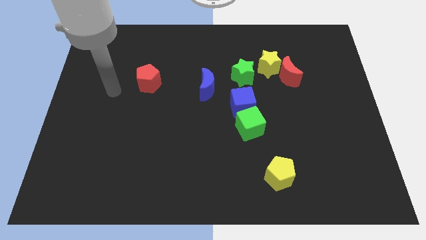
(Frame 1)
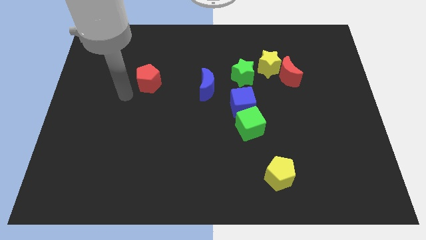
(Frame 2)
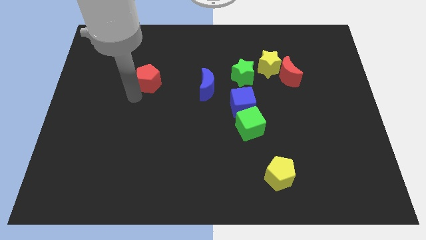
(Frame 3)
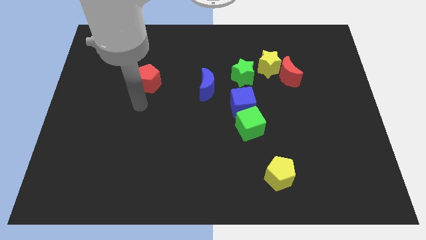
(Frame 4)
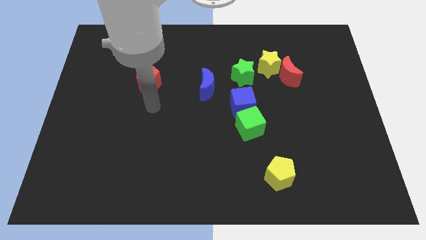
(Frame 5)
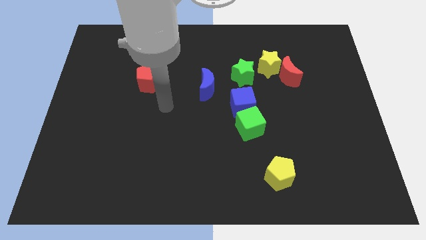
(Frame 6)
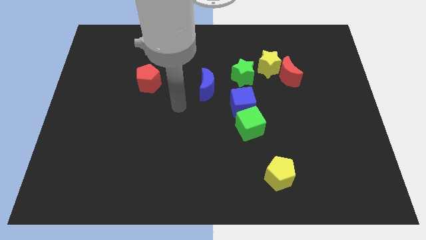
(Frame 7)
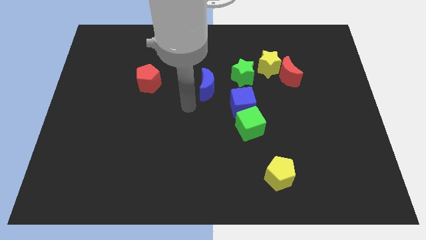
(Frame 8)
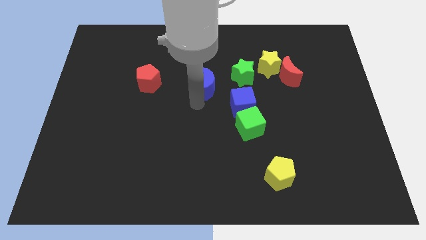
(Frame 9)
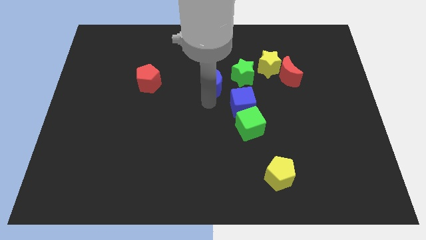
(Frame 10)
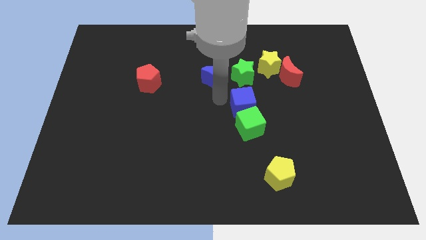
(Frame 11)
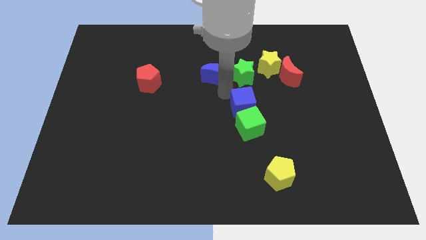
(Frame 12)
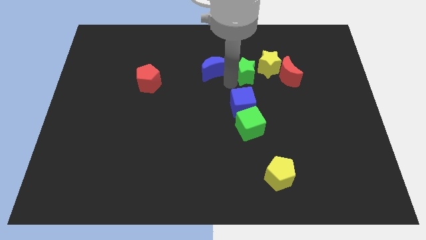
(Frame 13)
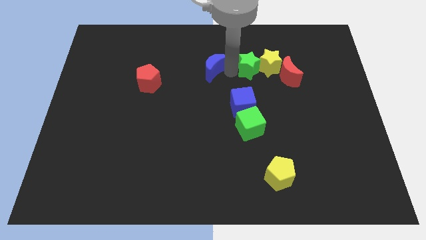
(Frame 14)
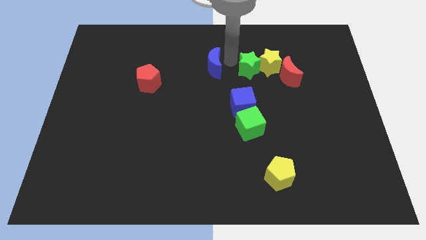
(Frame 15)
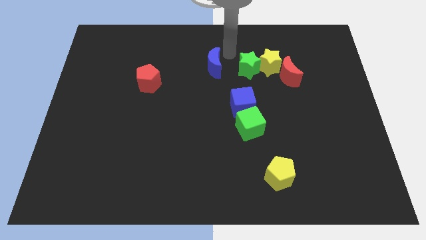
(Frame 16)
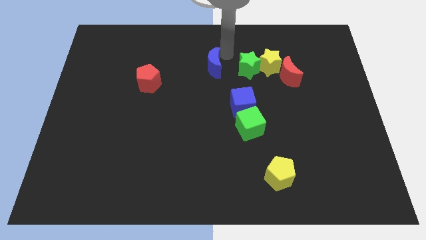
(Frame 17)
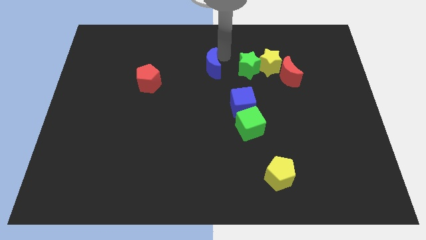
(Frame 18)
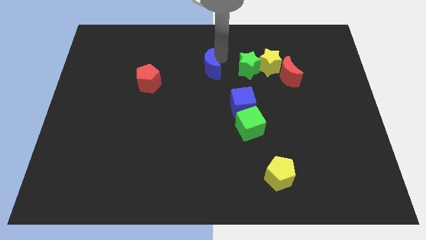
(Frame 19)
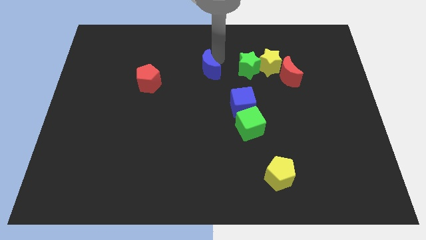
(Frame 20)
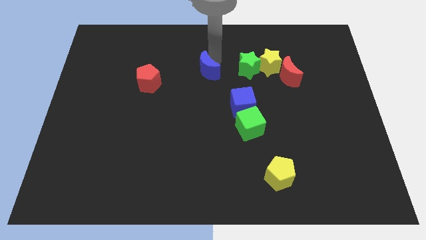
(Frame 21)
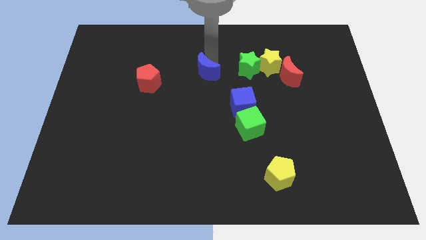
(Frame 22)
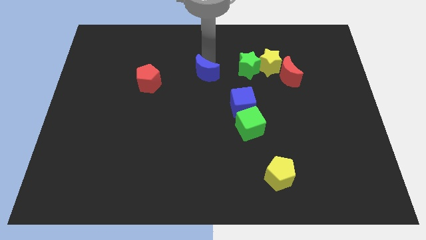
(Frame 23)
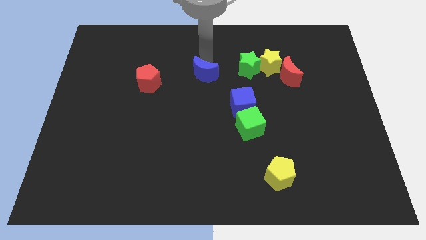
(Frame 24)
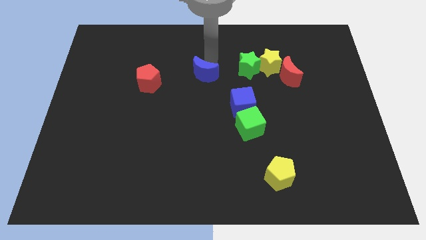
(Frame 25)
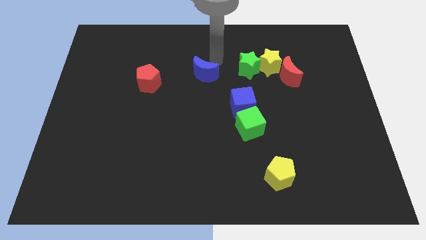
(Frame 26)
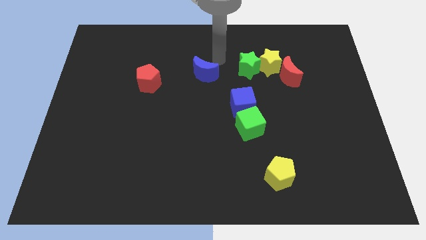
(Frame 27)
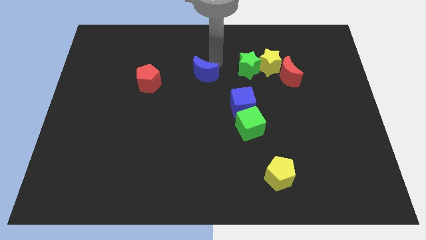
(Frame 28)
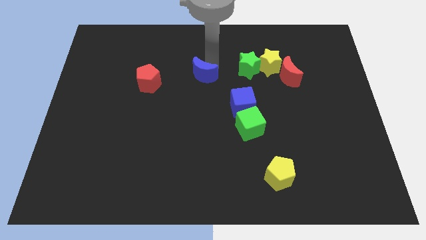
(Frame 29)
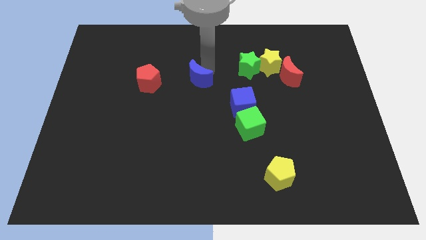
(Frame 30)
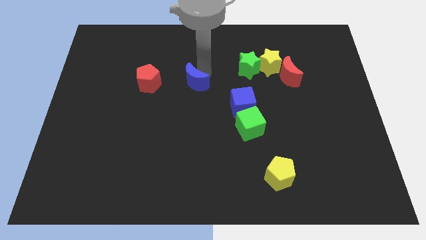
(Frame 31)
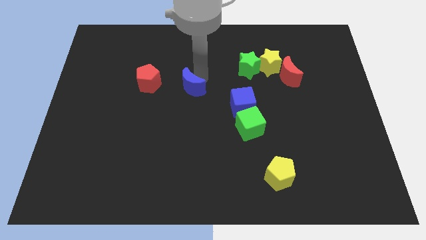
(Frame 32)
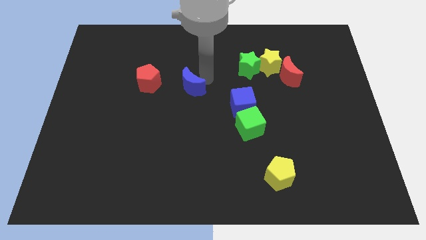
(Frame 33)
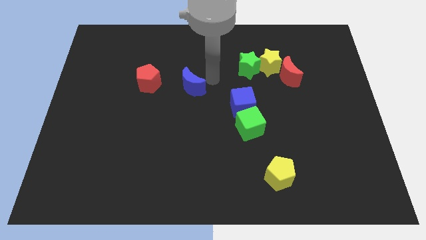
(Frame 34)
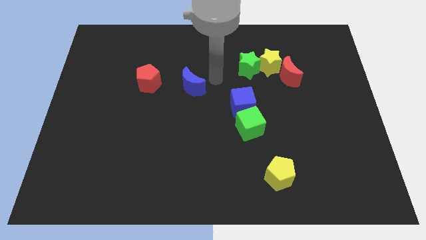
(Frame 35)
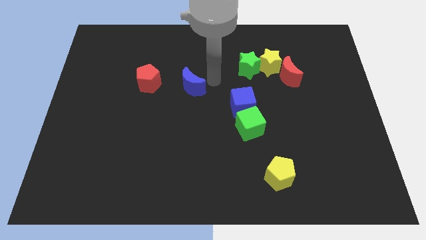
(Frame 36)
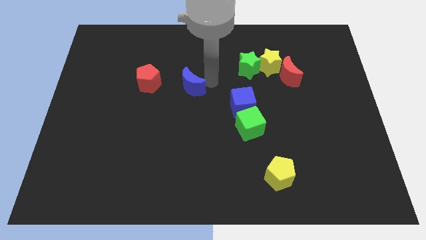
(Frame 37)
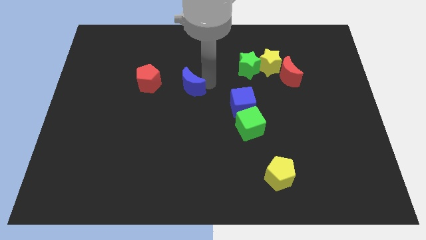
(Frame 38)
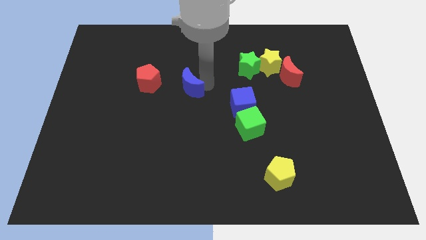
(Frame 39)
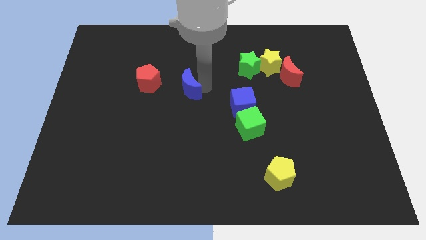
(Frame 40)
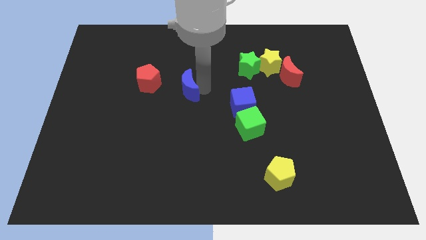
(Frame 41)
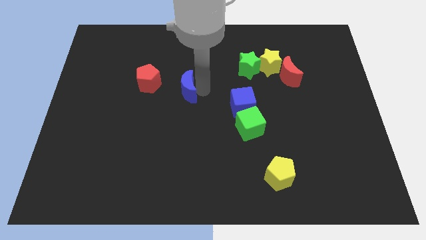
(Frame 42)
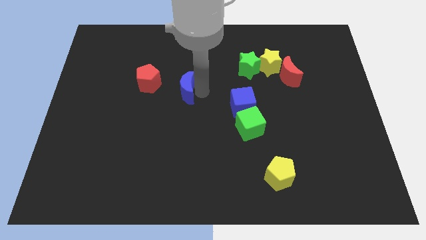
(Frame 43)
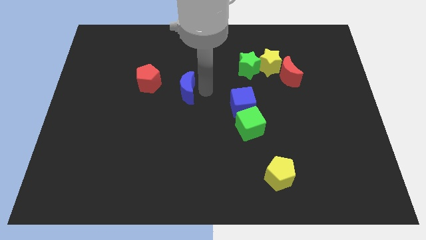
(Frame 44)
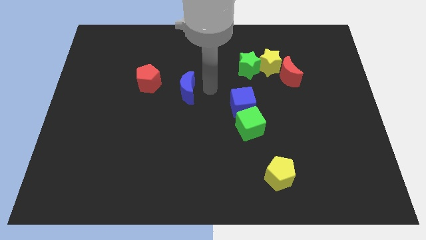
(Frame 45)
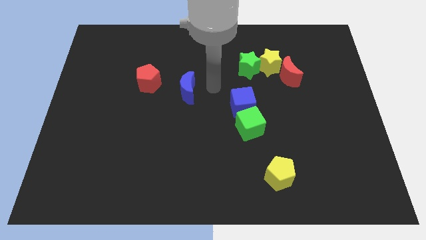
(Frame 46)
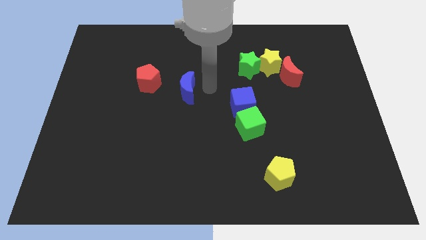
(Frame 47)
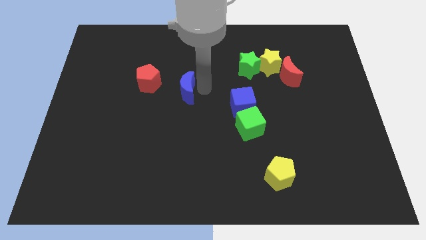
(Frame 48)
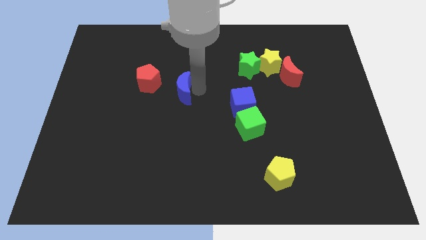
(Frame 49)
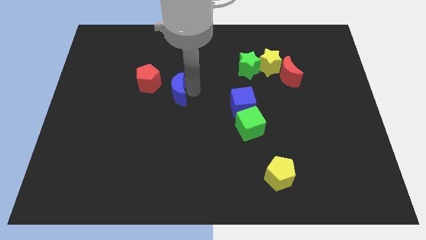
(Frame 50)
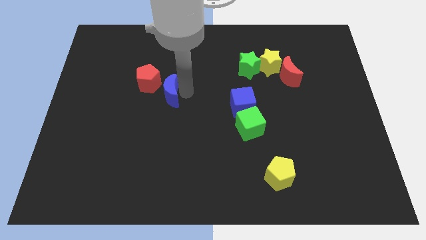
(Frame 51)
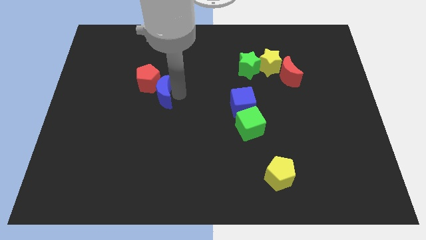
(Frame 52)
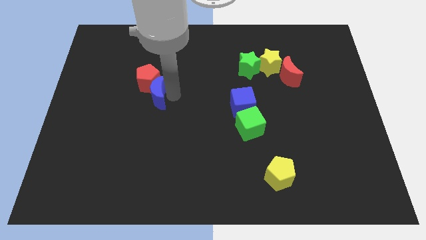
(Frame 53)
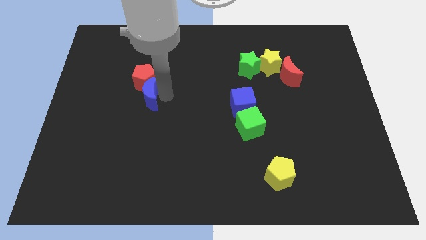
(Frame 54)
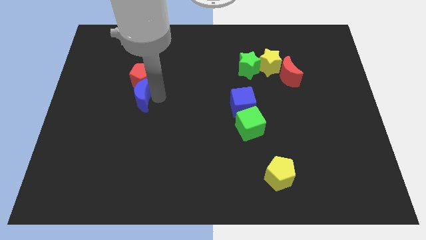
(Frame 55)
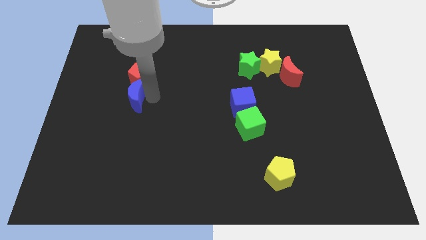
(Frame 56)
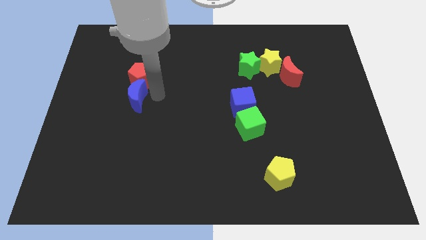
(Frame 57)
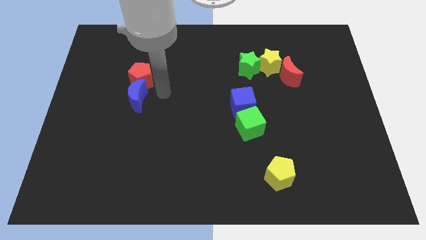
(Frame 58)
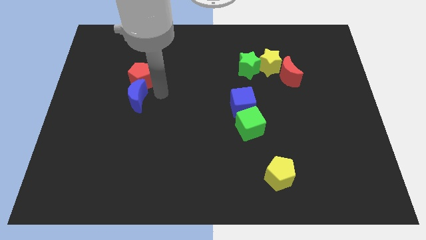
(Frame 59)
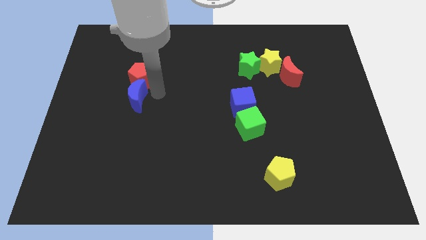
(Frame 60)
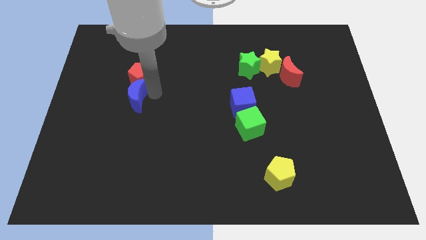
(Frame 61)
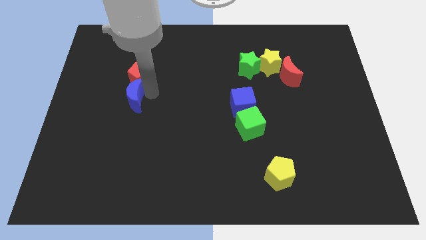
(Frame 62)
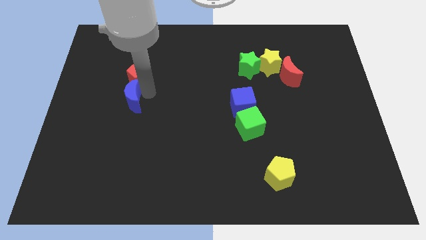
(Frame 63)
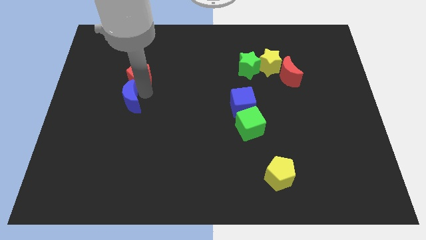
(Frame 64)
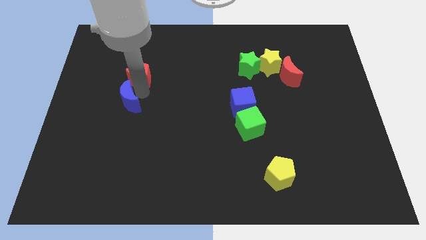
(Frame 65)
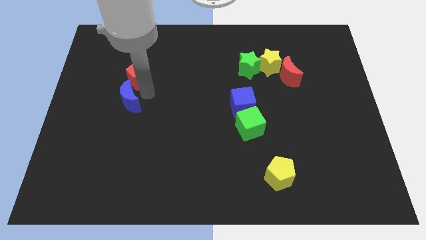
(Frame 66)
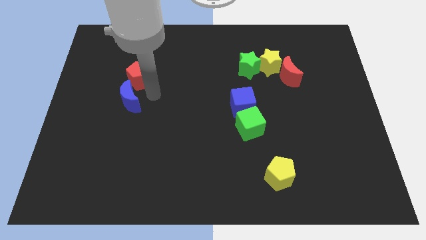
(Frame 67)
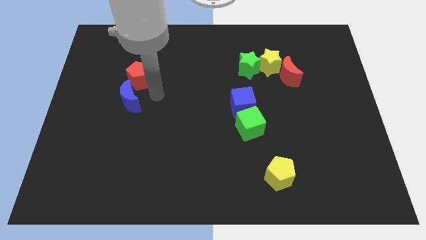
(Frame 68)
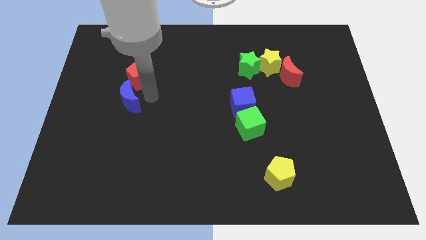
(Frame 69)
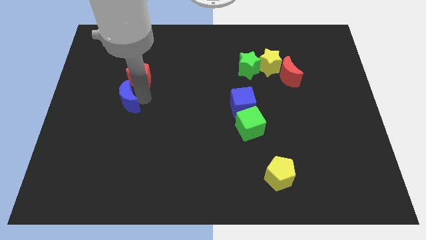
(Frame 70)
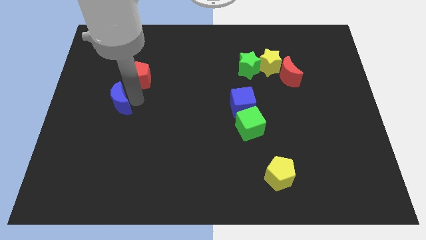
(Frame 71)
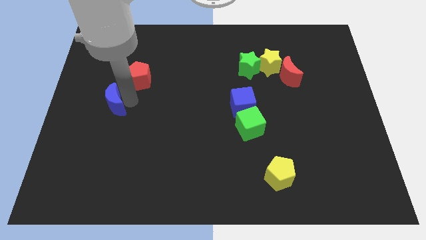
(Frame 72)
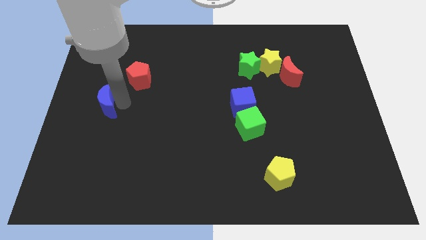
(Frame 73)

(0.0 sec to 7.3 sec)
push the blue moon to the left side of the board
